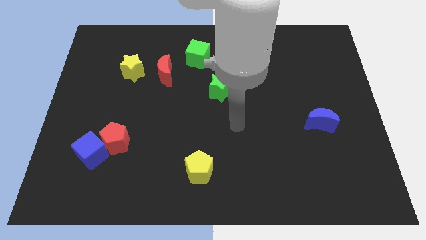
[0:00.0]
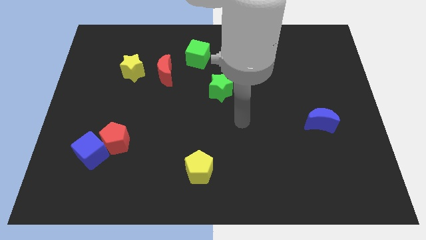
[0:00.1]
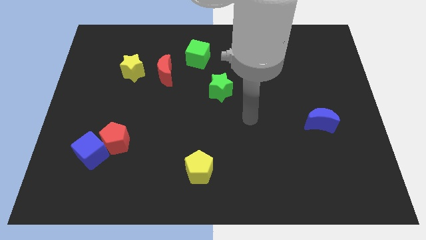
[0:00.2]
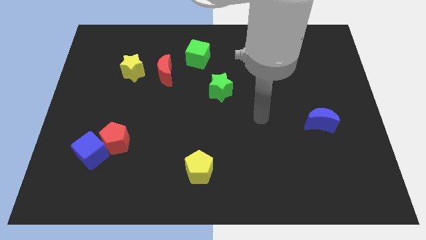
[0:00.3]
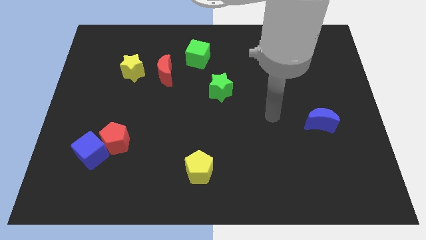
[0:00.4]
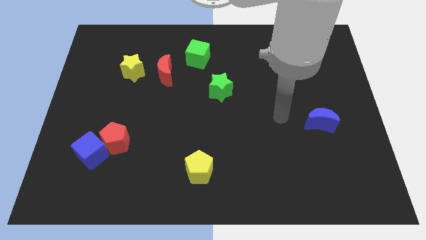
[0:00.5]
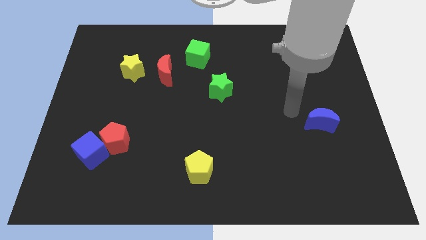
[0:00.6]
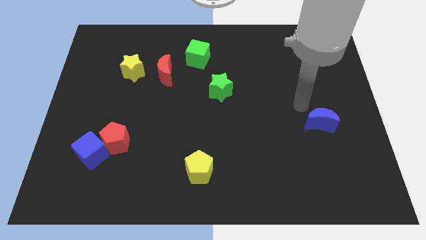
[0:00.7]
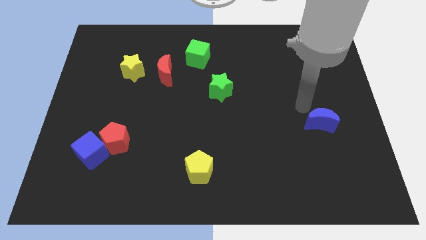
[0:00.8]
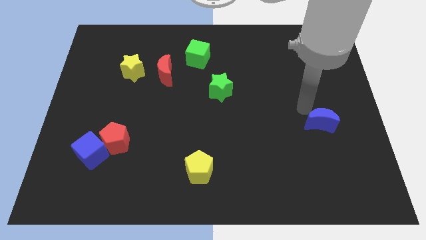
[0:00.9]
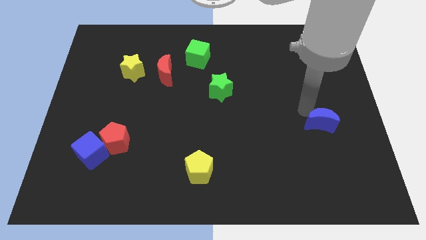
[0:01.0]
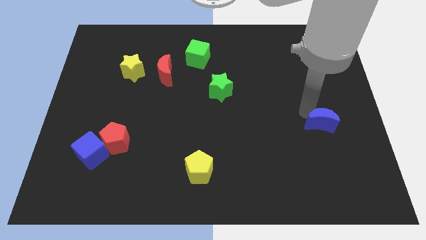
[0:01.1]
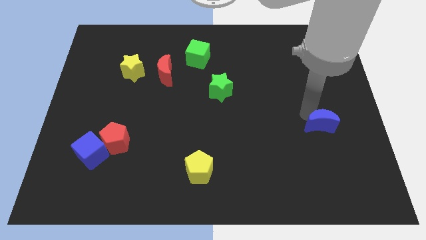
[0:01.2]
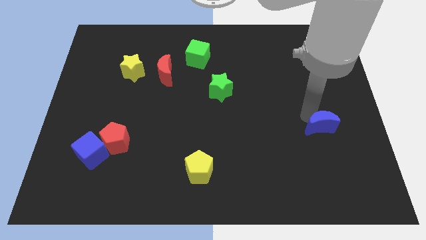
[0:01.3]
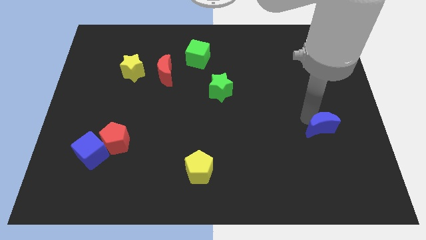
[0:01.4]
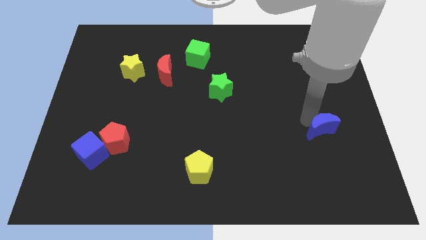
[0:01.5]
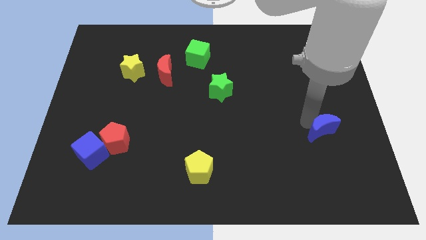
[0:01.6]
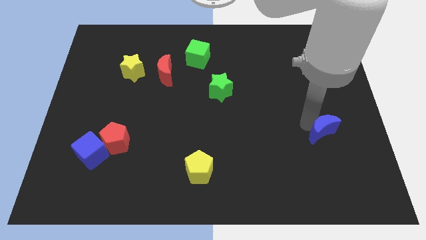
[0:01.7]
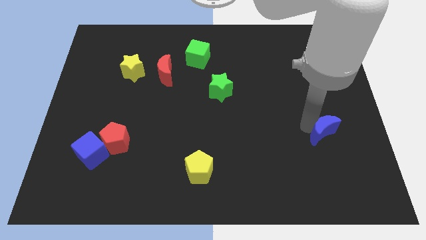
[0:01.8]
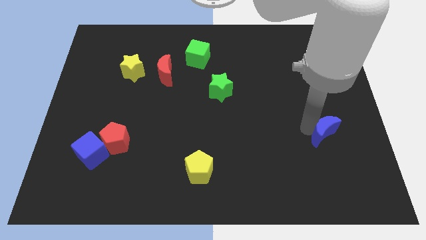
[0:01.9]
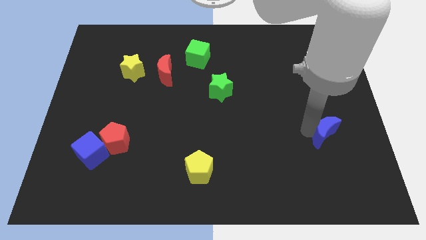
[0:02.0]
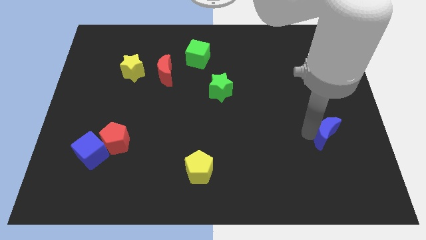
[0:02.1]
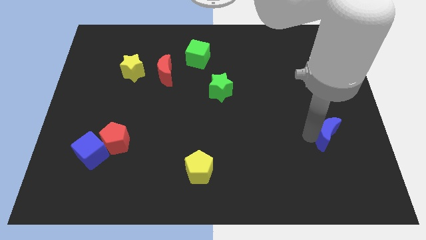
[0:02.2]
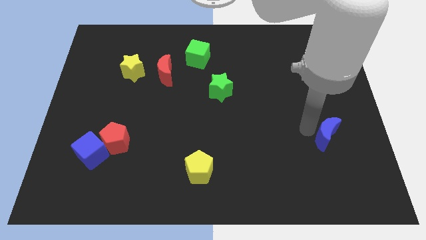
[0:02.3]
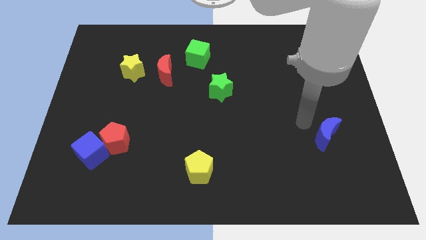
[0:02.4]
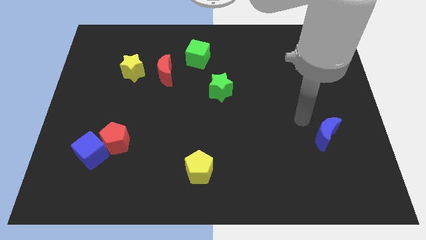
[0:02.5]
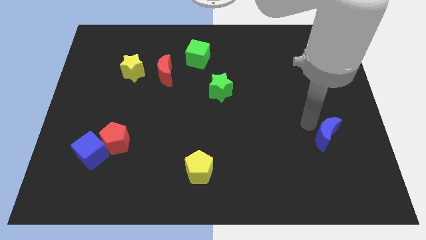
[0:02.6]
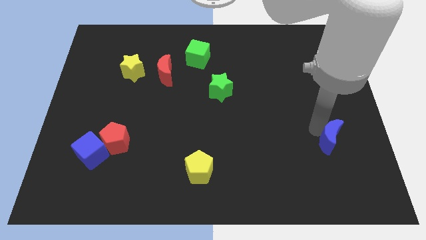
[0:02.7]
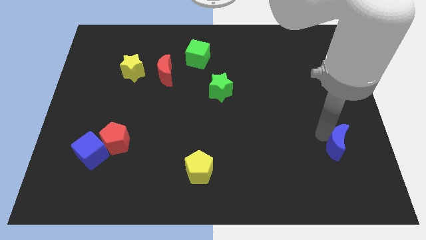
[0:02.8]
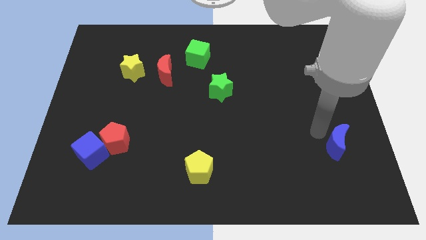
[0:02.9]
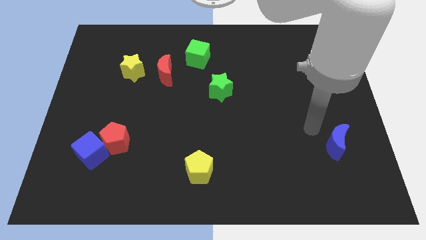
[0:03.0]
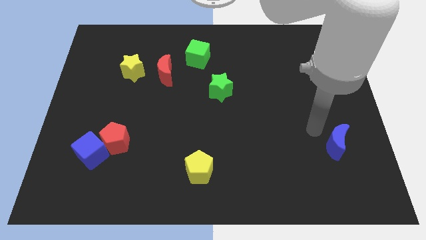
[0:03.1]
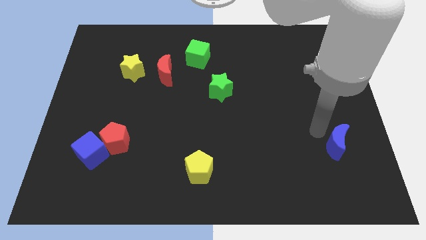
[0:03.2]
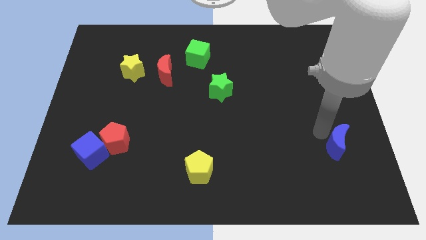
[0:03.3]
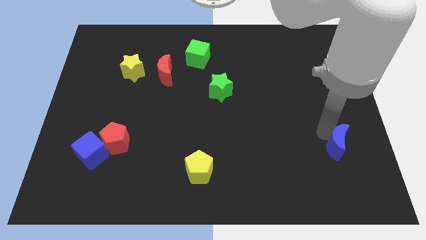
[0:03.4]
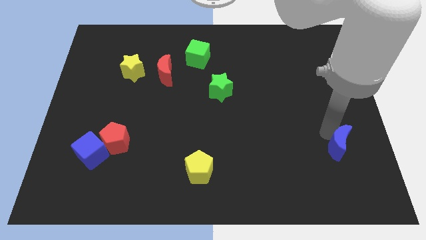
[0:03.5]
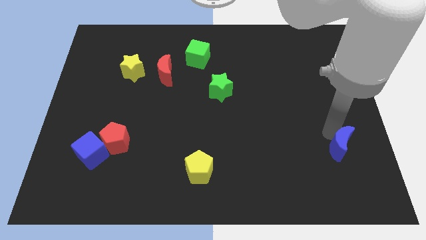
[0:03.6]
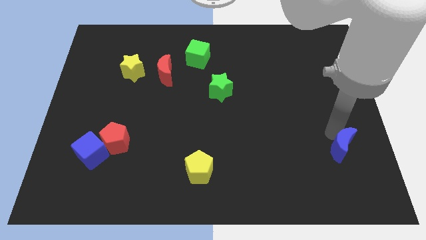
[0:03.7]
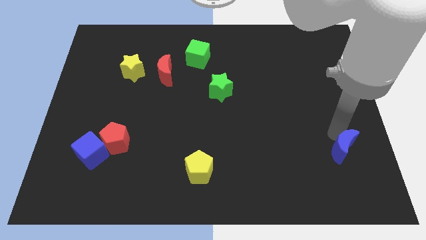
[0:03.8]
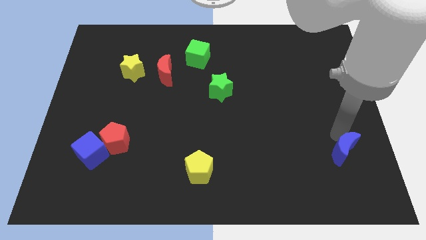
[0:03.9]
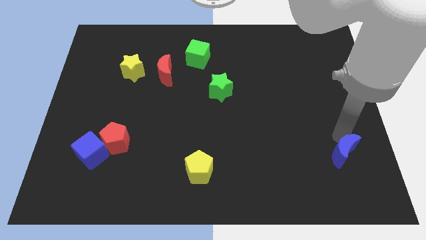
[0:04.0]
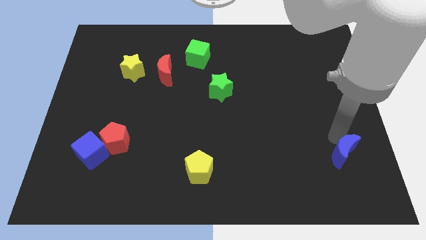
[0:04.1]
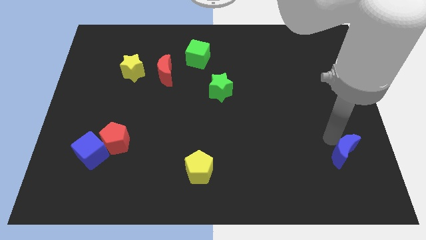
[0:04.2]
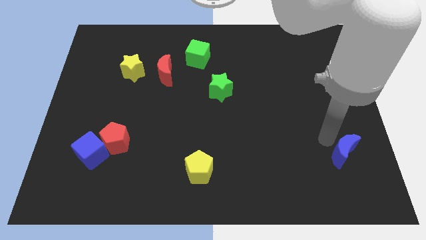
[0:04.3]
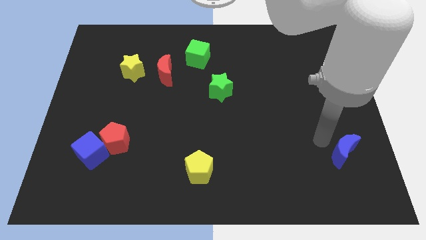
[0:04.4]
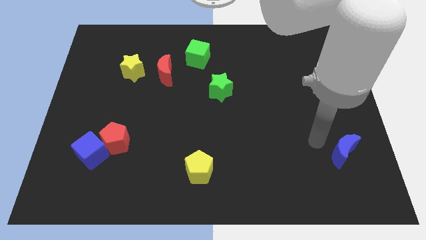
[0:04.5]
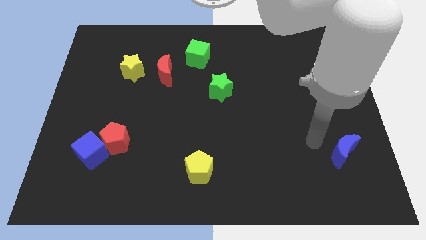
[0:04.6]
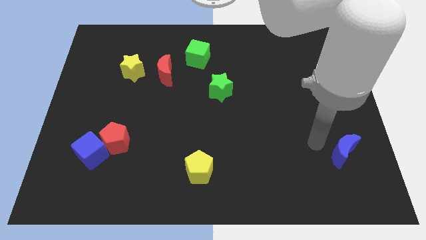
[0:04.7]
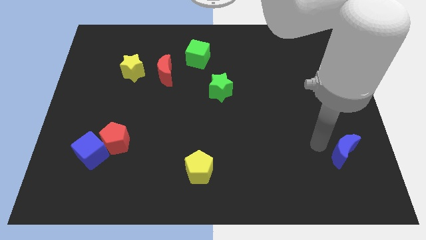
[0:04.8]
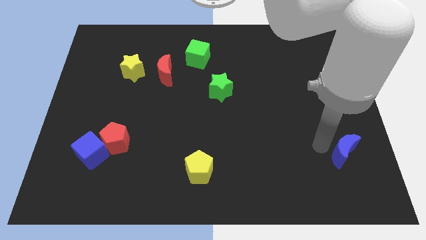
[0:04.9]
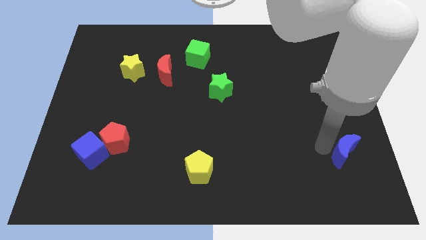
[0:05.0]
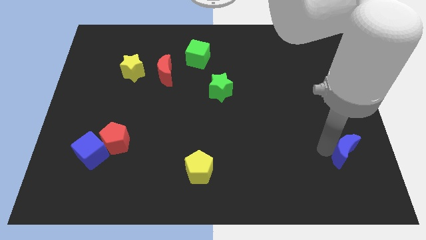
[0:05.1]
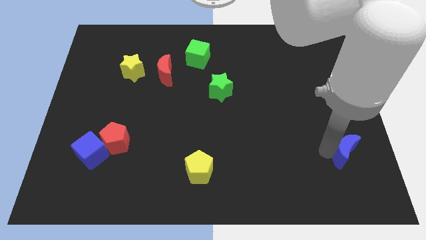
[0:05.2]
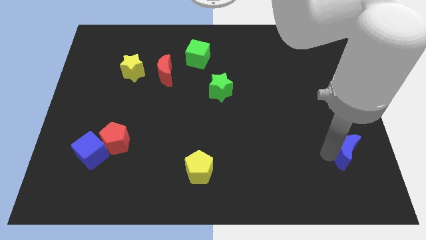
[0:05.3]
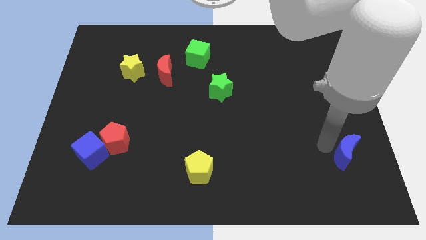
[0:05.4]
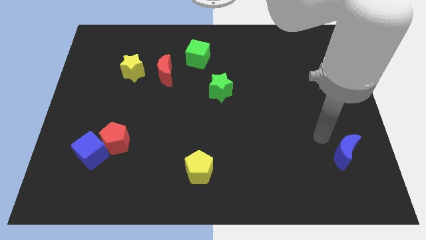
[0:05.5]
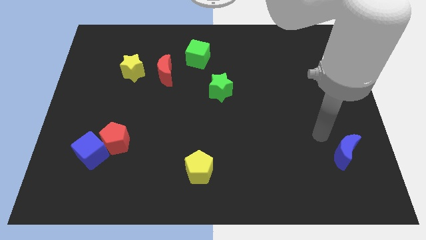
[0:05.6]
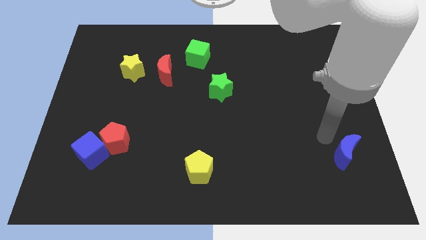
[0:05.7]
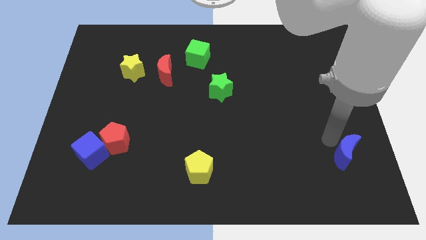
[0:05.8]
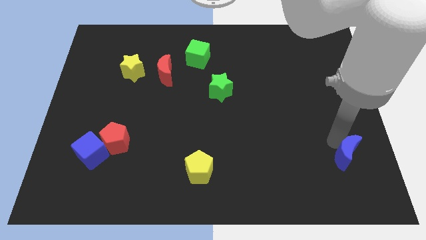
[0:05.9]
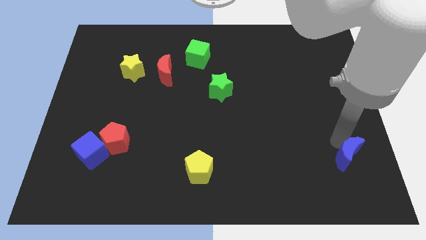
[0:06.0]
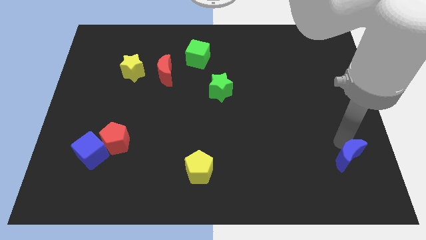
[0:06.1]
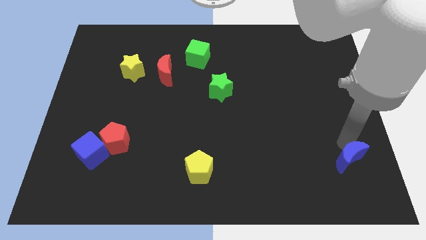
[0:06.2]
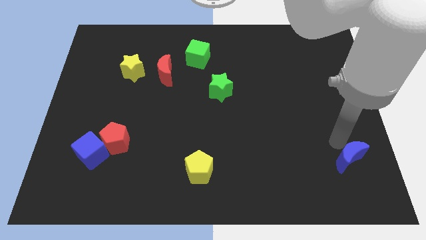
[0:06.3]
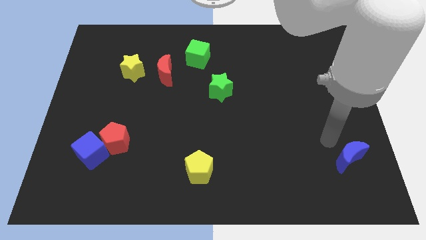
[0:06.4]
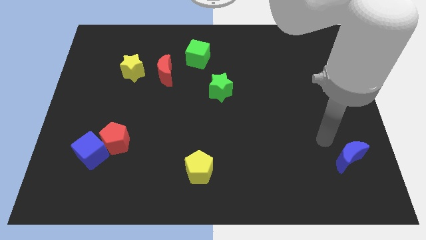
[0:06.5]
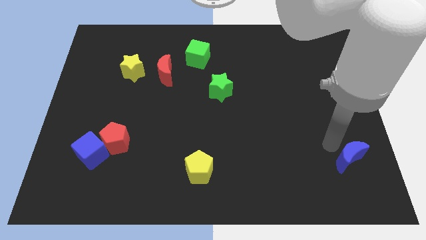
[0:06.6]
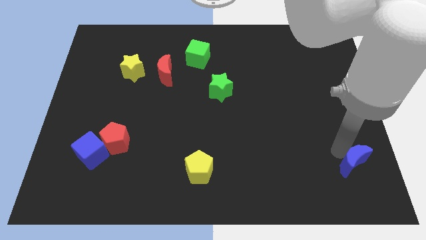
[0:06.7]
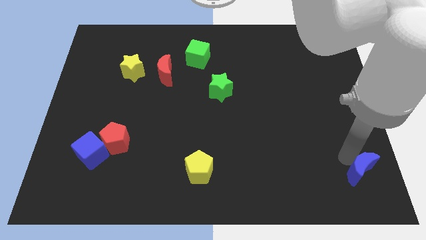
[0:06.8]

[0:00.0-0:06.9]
put the blue moon to the bottom right of the board
